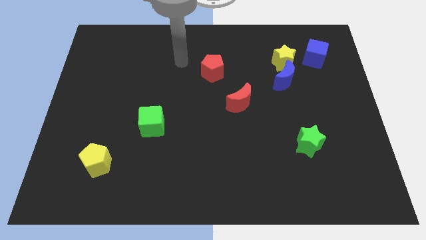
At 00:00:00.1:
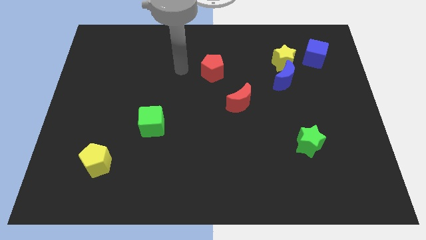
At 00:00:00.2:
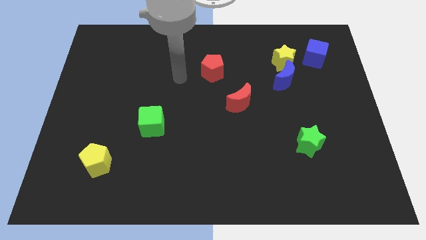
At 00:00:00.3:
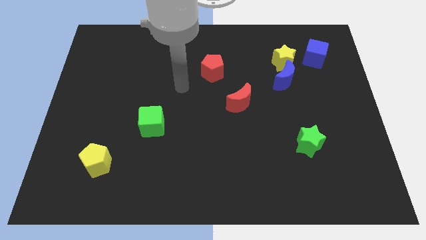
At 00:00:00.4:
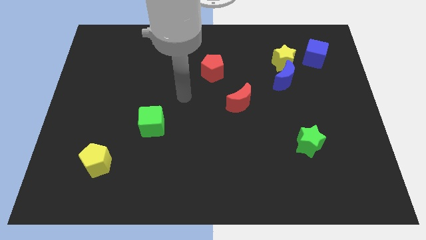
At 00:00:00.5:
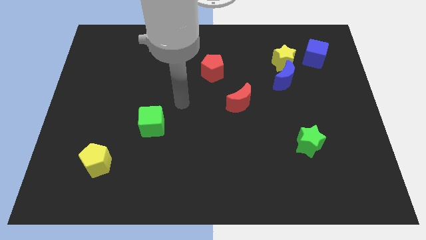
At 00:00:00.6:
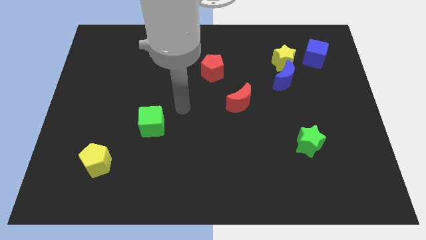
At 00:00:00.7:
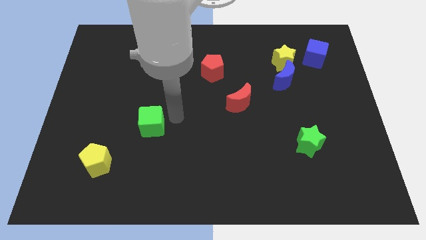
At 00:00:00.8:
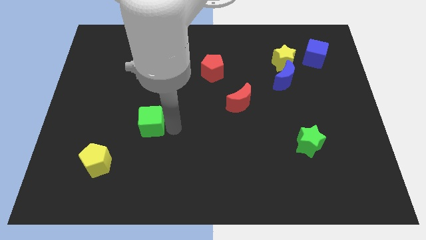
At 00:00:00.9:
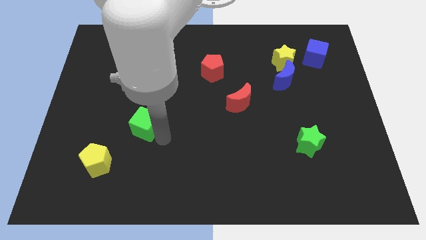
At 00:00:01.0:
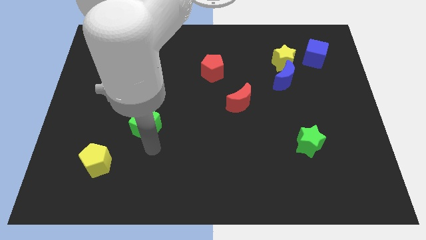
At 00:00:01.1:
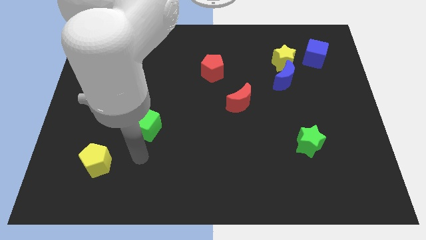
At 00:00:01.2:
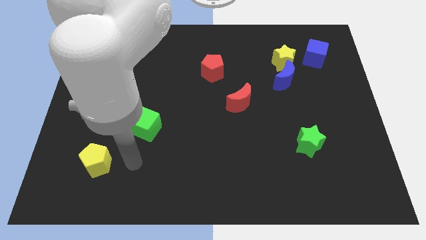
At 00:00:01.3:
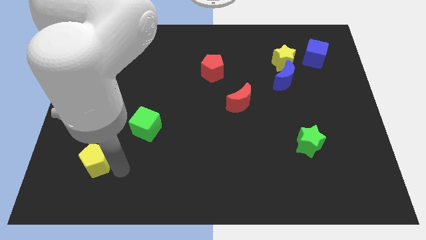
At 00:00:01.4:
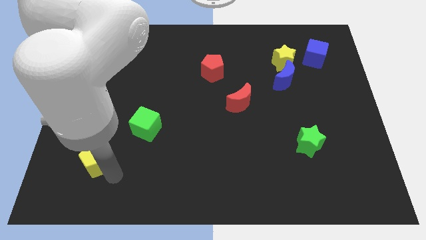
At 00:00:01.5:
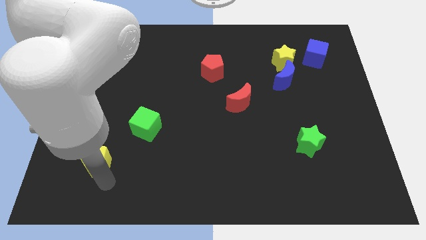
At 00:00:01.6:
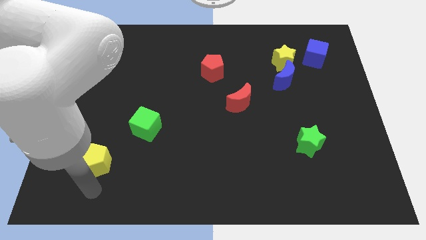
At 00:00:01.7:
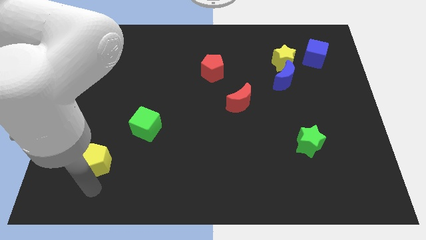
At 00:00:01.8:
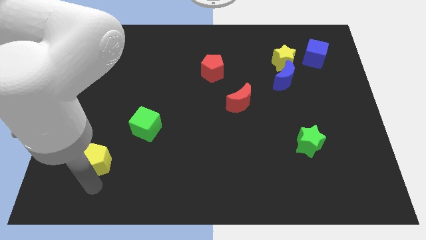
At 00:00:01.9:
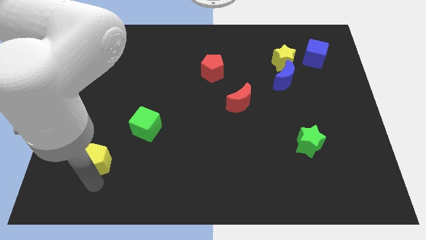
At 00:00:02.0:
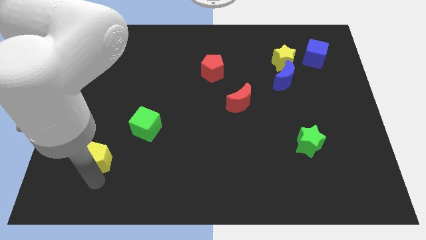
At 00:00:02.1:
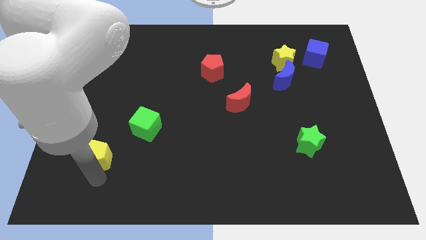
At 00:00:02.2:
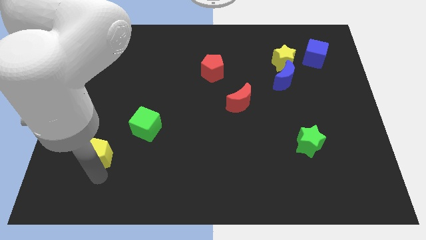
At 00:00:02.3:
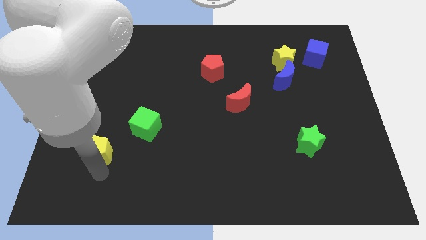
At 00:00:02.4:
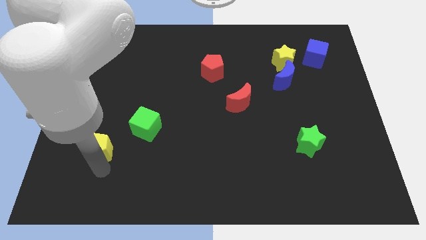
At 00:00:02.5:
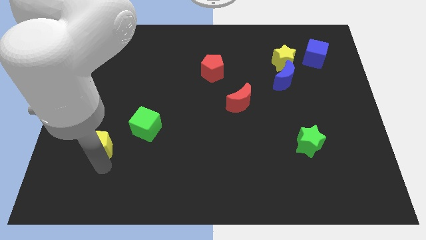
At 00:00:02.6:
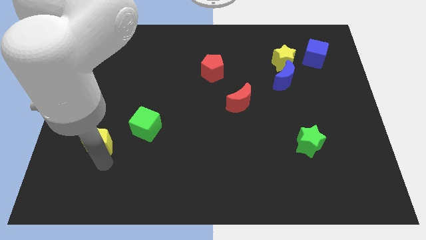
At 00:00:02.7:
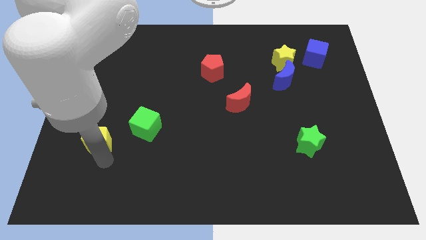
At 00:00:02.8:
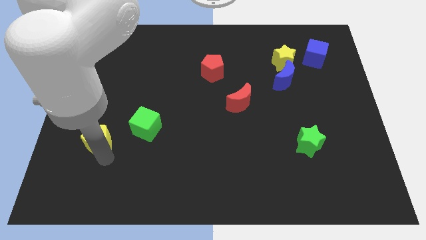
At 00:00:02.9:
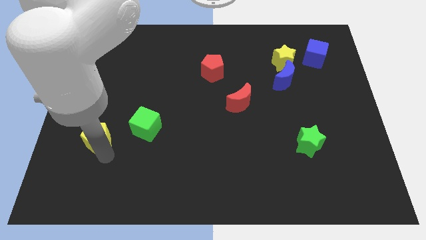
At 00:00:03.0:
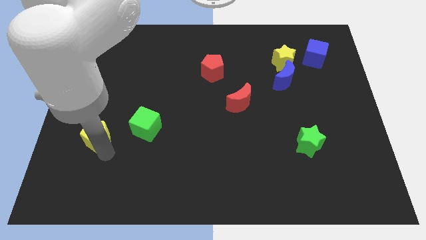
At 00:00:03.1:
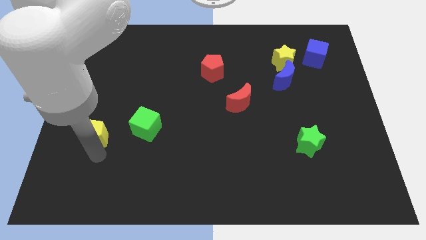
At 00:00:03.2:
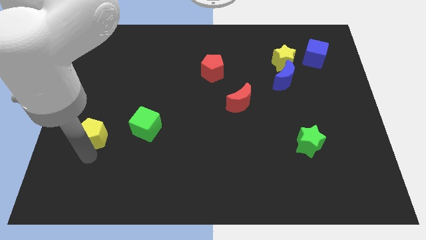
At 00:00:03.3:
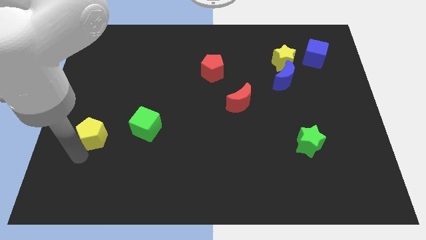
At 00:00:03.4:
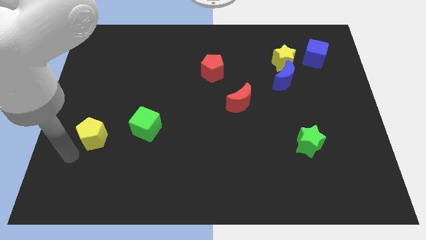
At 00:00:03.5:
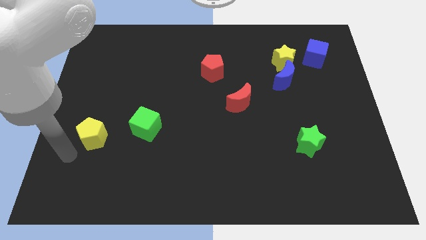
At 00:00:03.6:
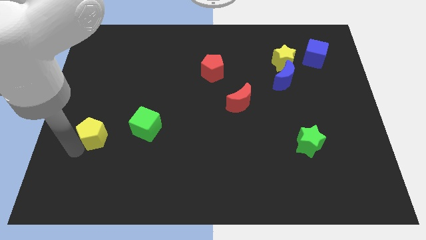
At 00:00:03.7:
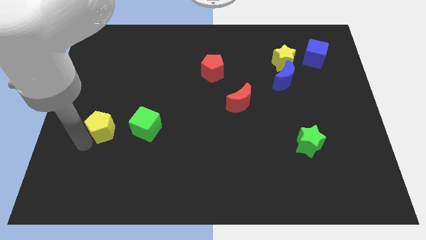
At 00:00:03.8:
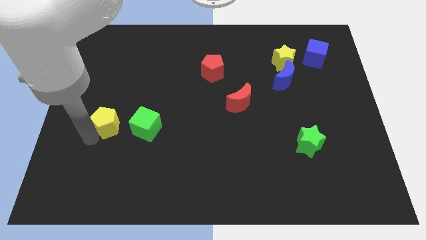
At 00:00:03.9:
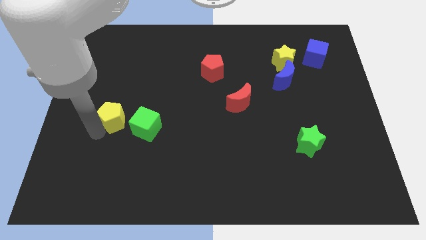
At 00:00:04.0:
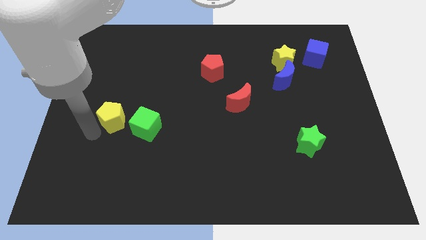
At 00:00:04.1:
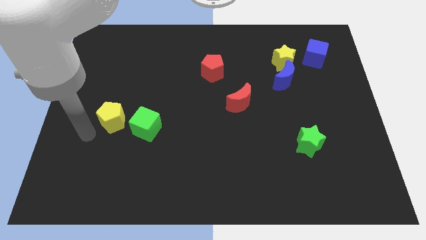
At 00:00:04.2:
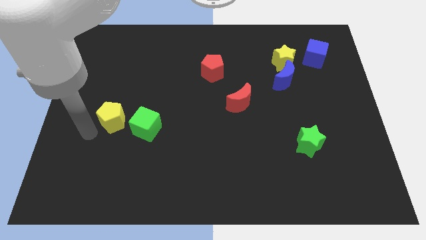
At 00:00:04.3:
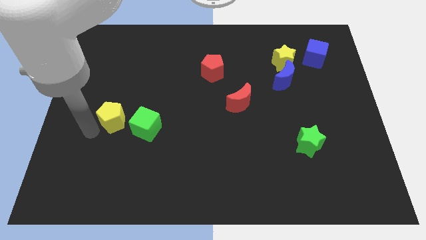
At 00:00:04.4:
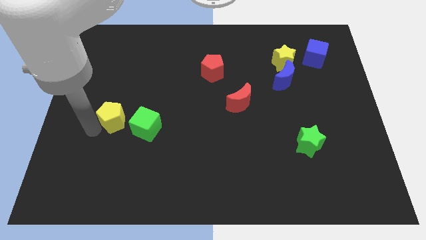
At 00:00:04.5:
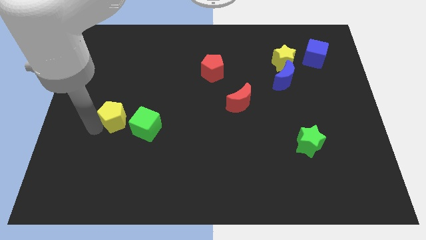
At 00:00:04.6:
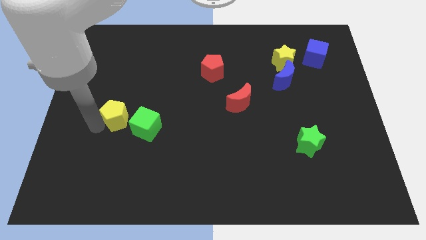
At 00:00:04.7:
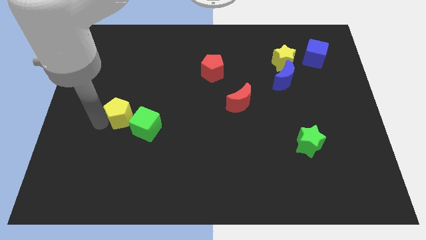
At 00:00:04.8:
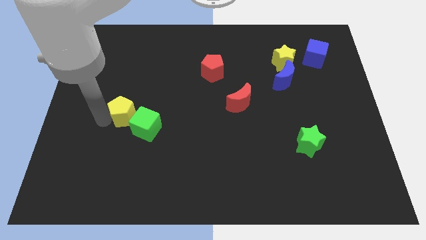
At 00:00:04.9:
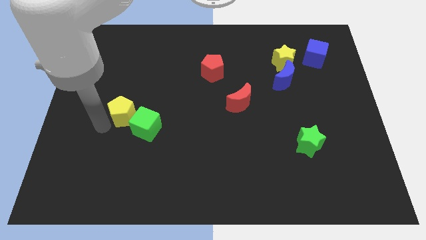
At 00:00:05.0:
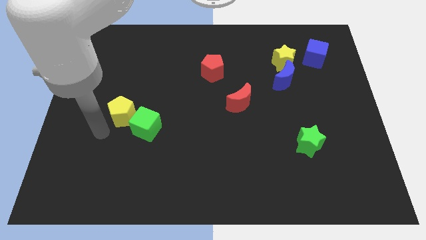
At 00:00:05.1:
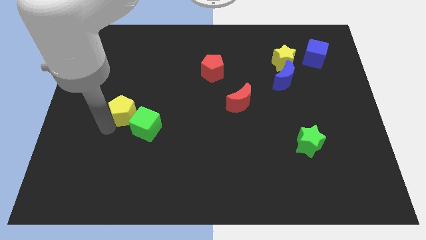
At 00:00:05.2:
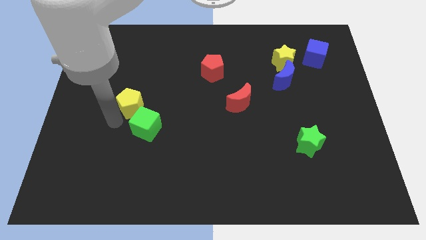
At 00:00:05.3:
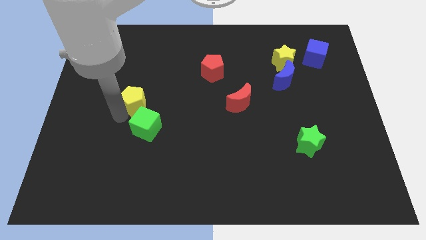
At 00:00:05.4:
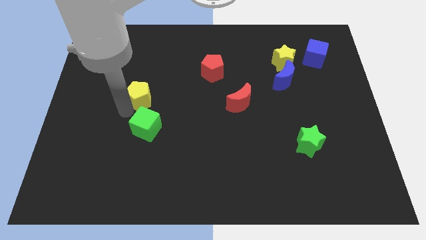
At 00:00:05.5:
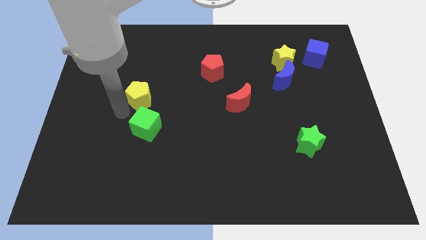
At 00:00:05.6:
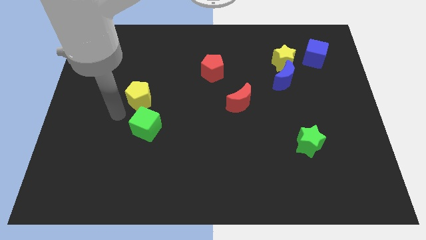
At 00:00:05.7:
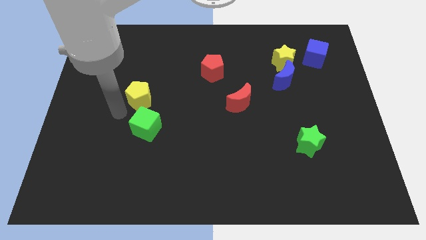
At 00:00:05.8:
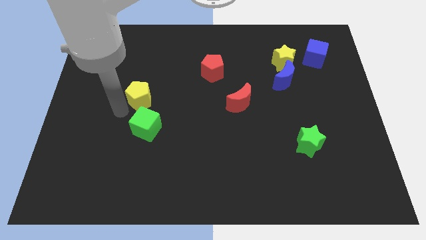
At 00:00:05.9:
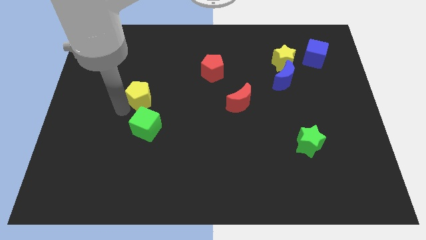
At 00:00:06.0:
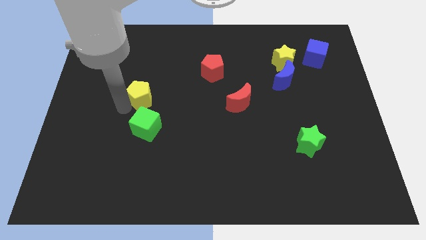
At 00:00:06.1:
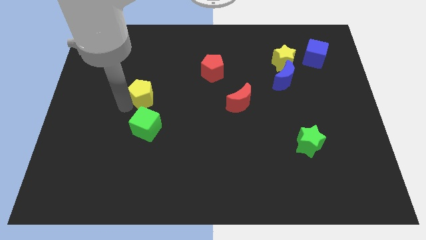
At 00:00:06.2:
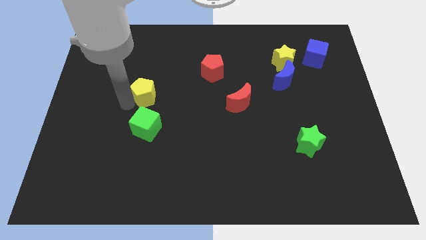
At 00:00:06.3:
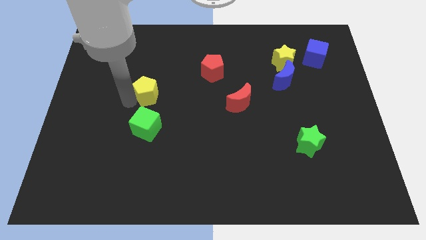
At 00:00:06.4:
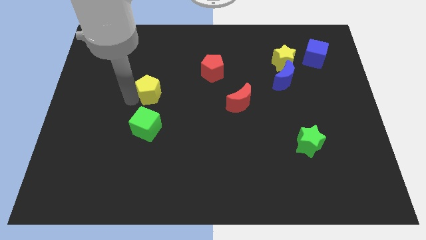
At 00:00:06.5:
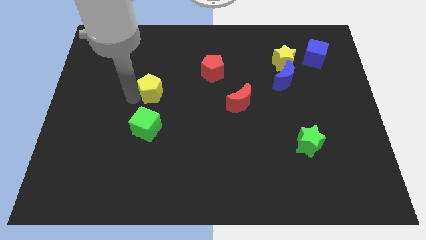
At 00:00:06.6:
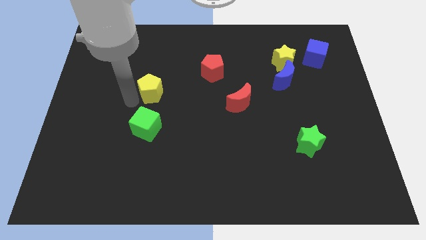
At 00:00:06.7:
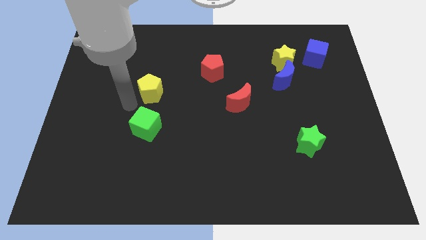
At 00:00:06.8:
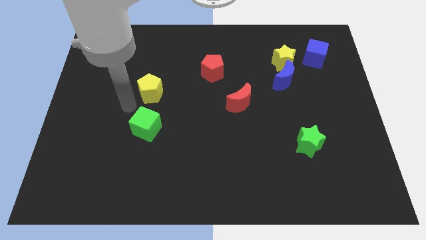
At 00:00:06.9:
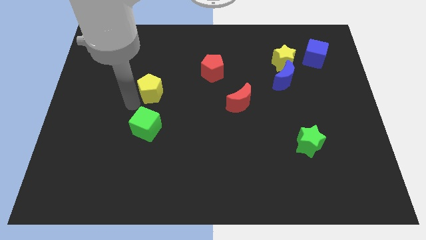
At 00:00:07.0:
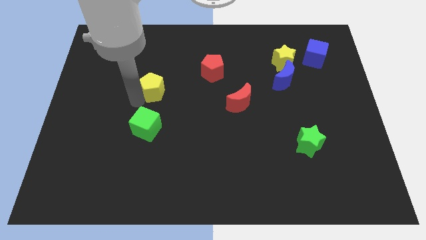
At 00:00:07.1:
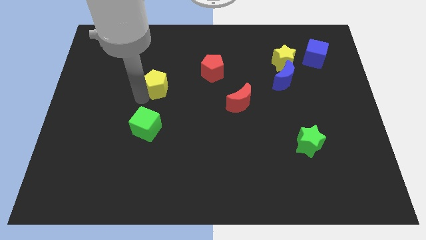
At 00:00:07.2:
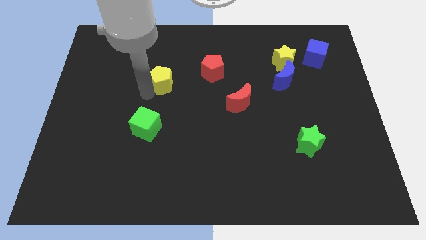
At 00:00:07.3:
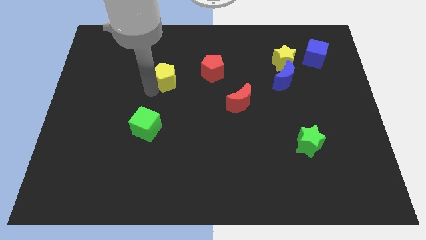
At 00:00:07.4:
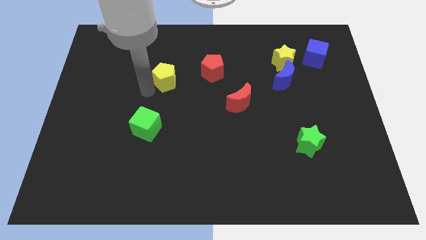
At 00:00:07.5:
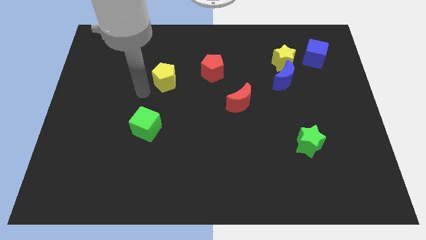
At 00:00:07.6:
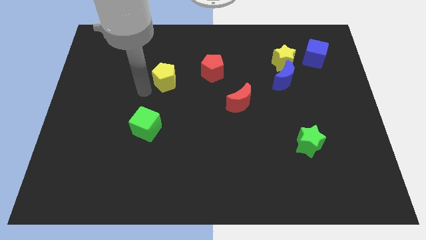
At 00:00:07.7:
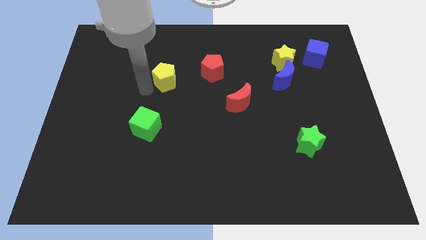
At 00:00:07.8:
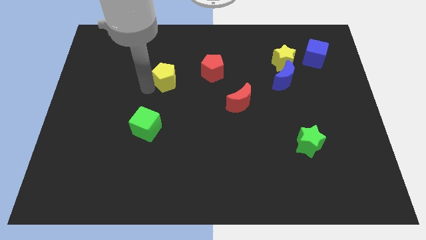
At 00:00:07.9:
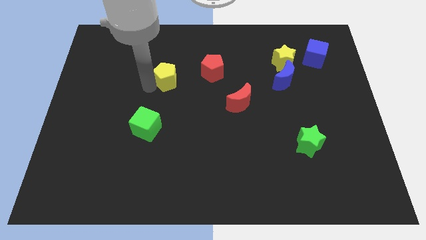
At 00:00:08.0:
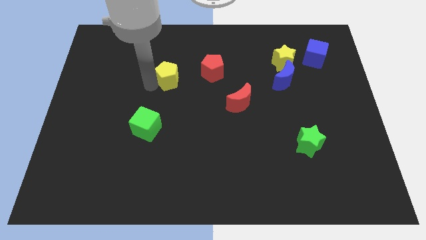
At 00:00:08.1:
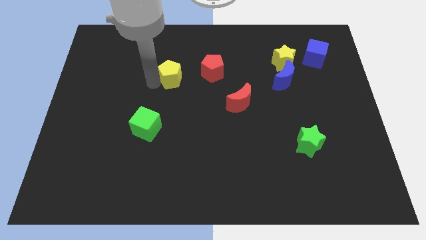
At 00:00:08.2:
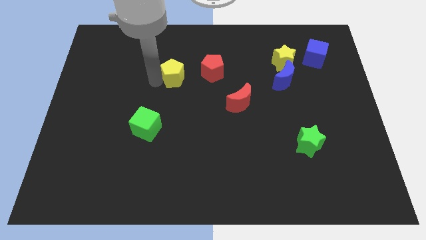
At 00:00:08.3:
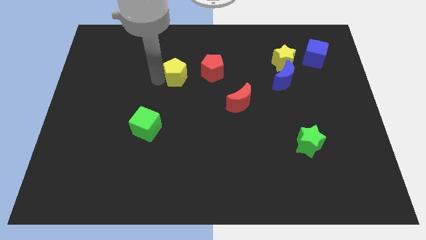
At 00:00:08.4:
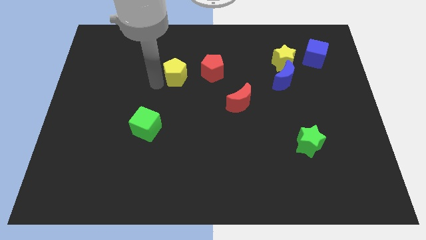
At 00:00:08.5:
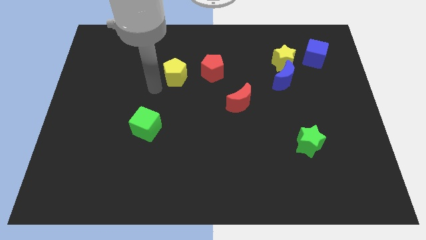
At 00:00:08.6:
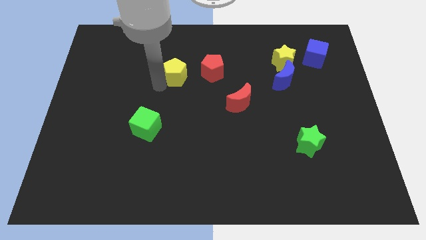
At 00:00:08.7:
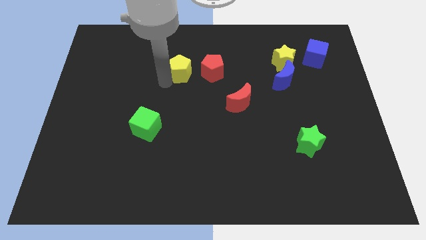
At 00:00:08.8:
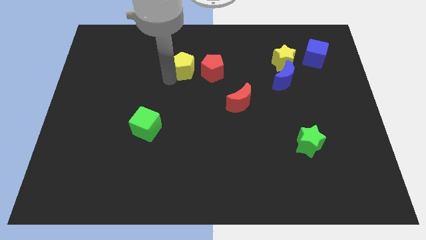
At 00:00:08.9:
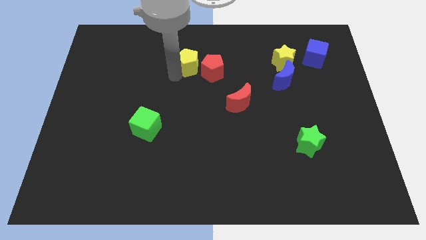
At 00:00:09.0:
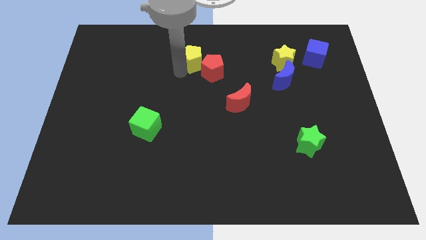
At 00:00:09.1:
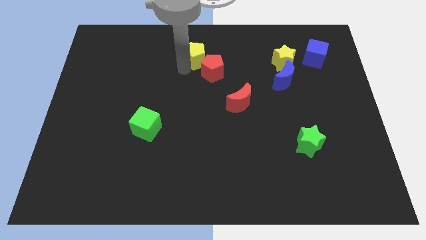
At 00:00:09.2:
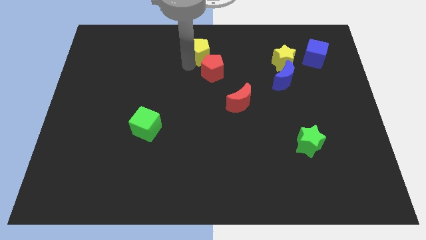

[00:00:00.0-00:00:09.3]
put the yellow pentagon to the top side
